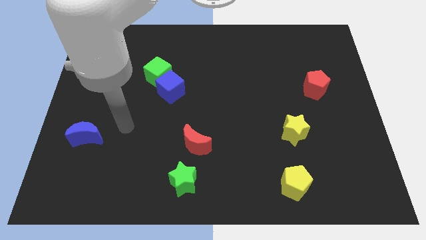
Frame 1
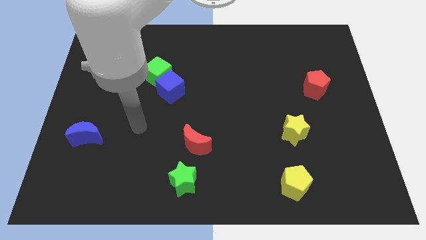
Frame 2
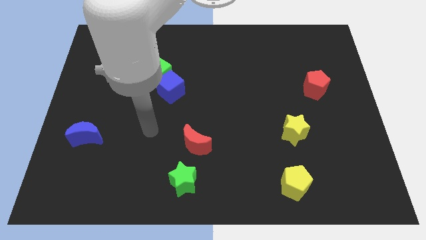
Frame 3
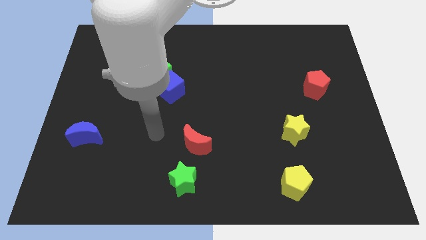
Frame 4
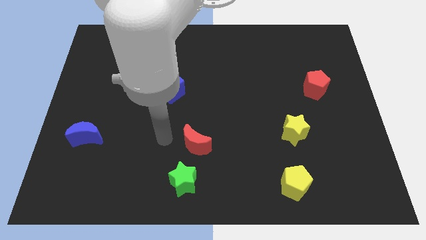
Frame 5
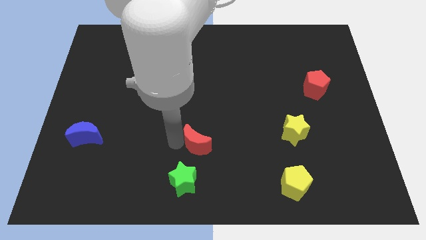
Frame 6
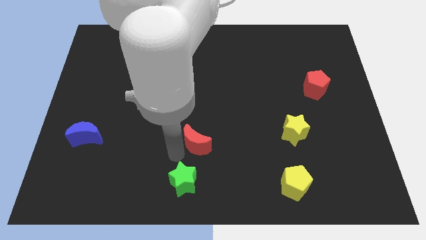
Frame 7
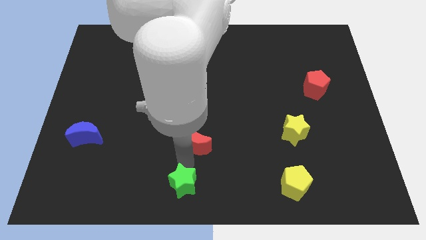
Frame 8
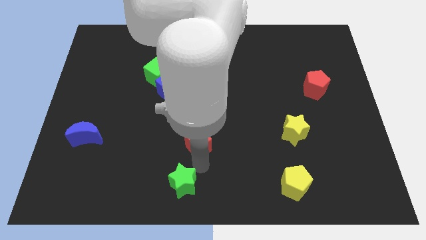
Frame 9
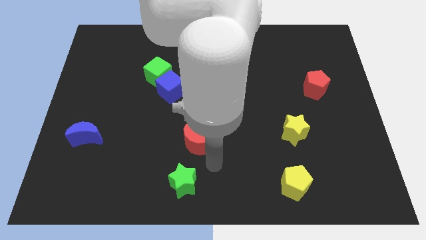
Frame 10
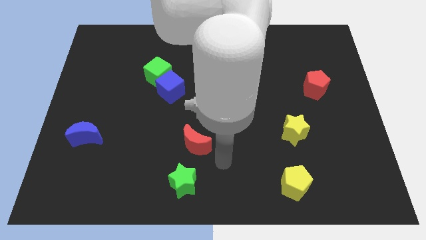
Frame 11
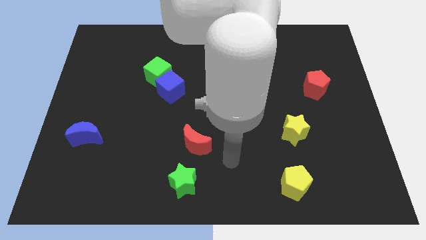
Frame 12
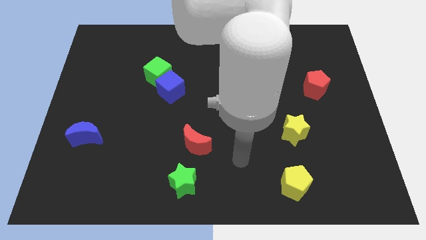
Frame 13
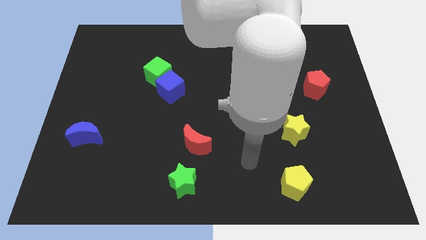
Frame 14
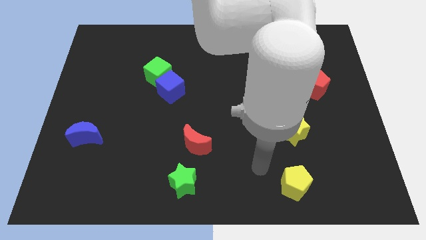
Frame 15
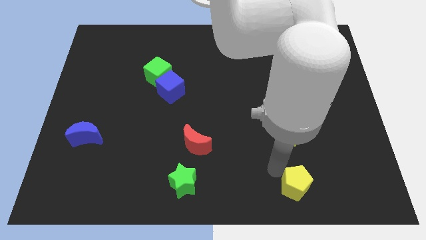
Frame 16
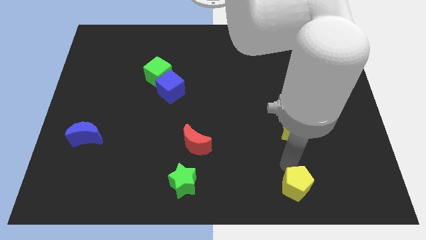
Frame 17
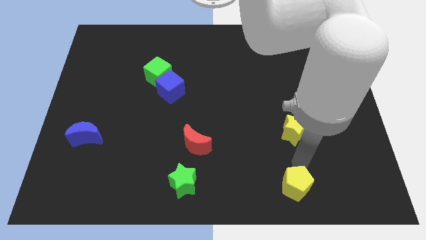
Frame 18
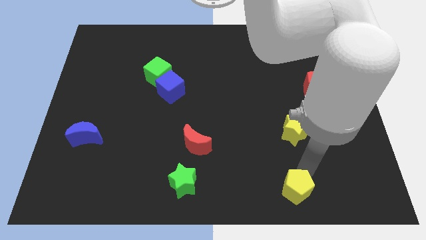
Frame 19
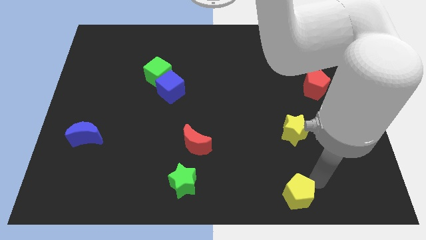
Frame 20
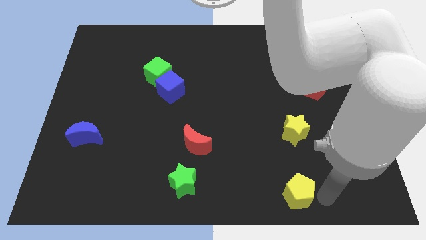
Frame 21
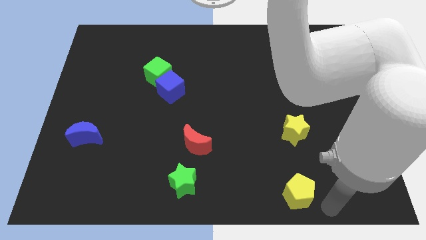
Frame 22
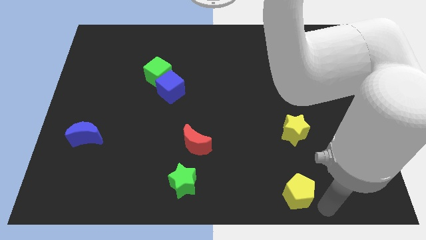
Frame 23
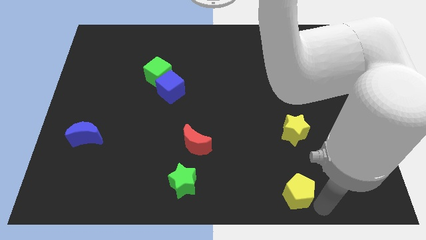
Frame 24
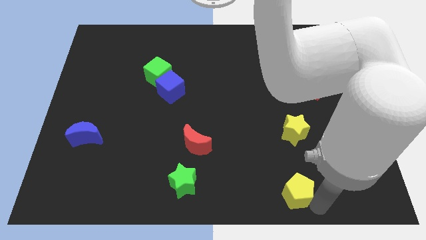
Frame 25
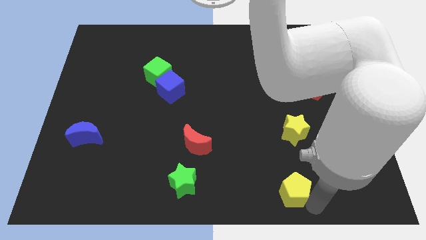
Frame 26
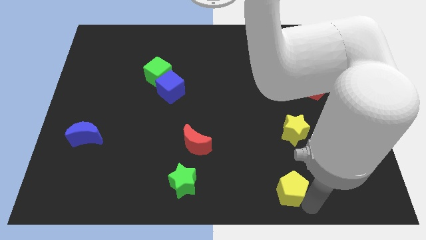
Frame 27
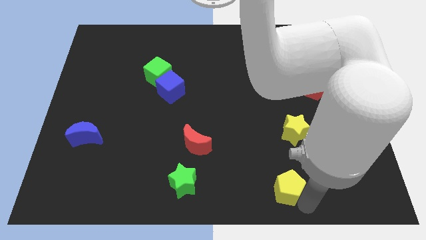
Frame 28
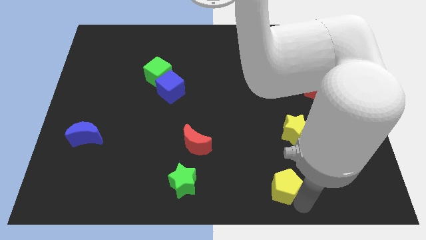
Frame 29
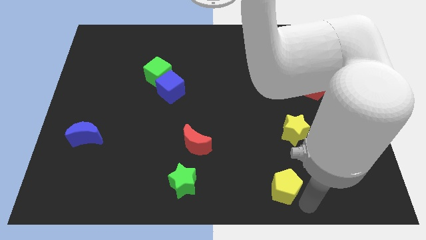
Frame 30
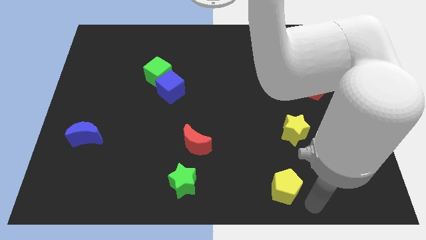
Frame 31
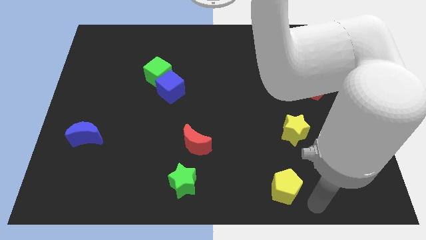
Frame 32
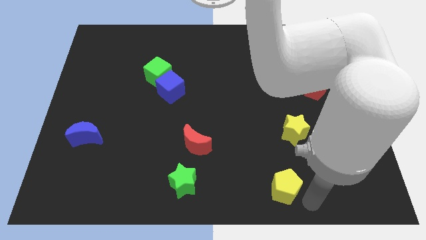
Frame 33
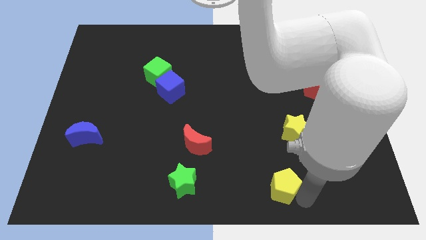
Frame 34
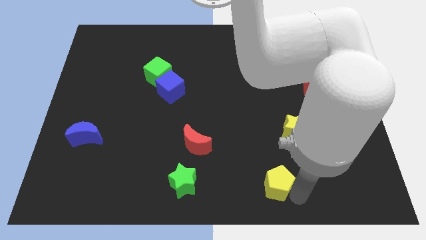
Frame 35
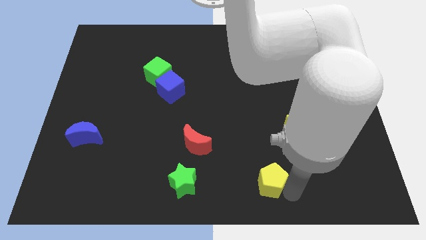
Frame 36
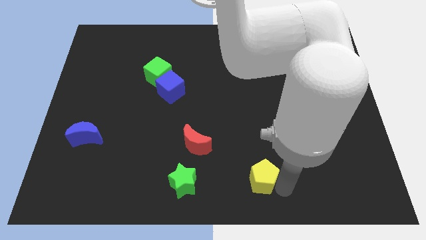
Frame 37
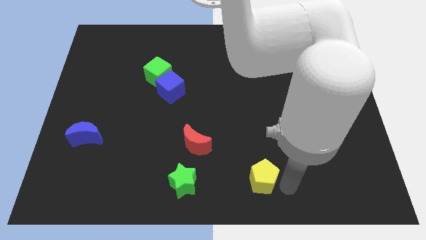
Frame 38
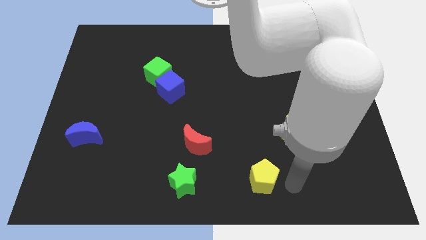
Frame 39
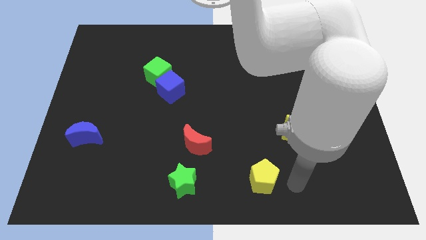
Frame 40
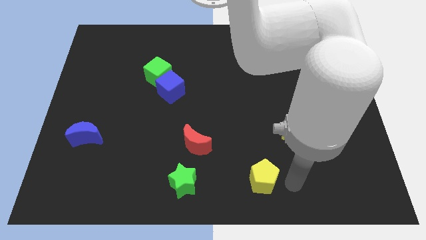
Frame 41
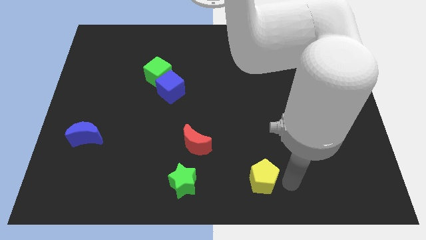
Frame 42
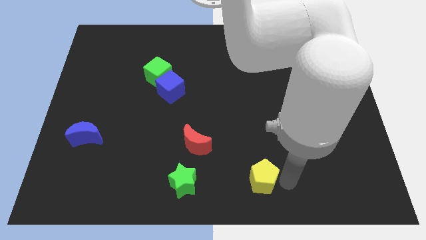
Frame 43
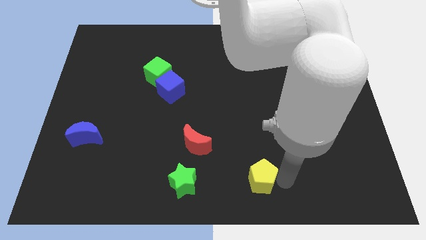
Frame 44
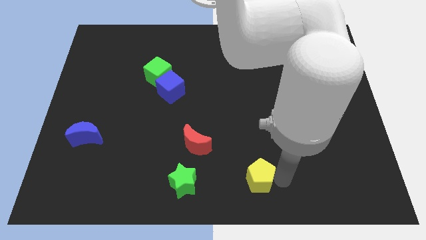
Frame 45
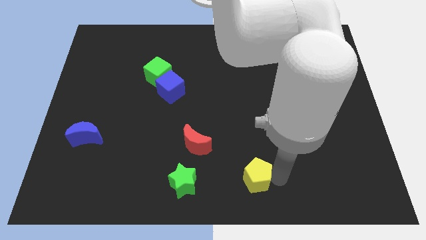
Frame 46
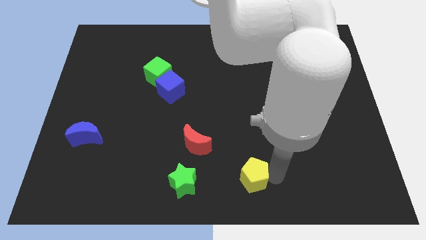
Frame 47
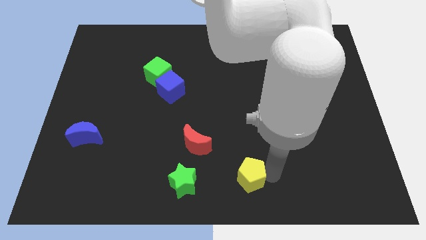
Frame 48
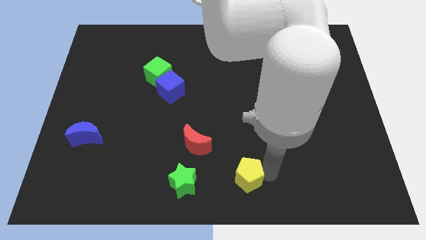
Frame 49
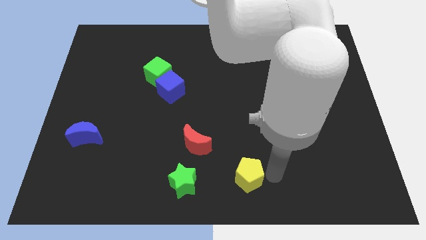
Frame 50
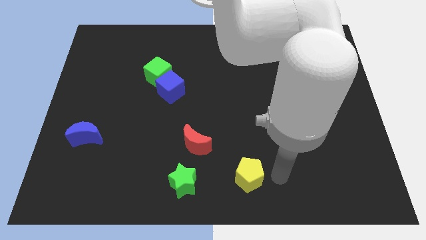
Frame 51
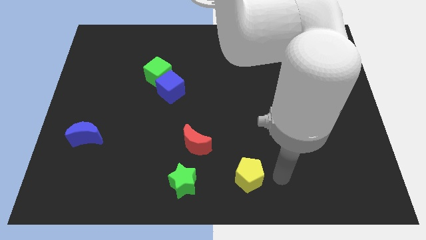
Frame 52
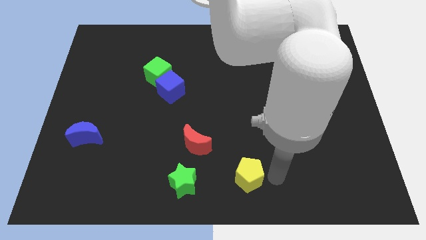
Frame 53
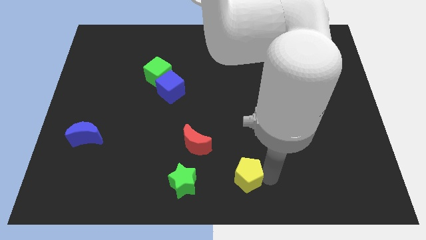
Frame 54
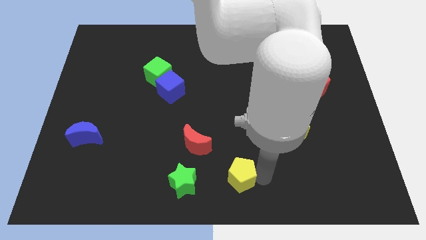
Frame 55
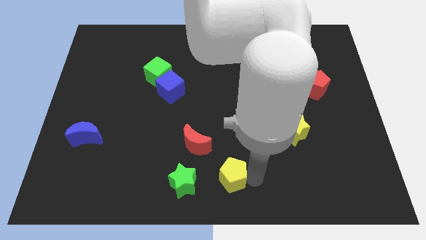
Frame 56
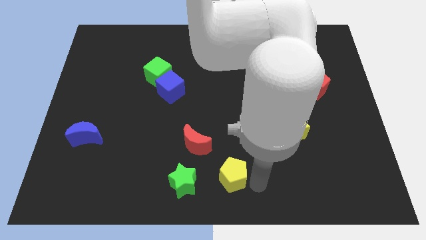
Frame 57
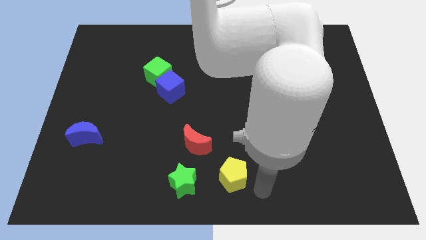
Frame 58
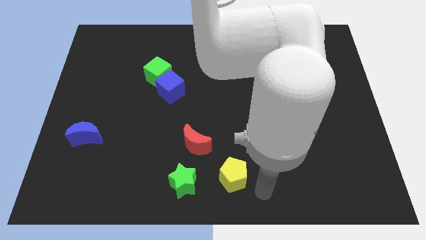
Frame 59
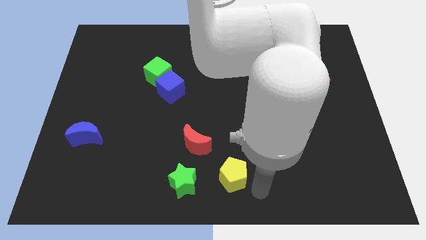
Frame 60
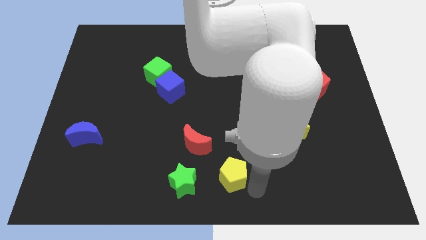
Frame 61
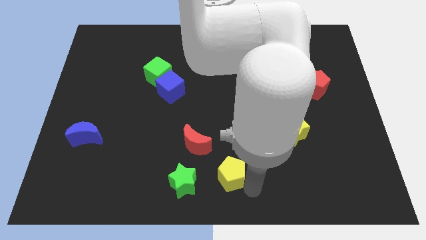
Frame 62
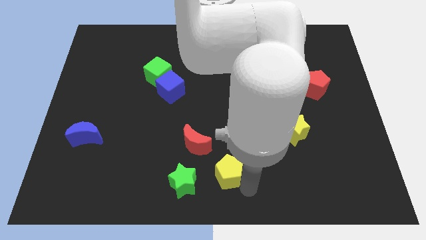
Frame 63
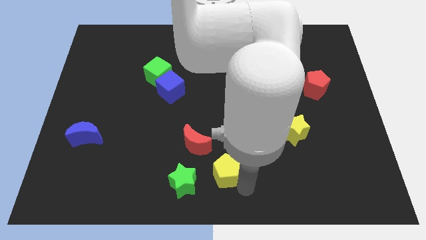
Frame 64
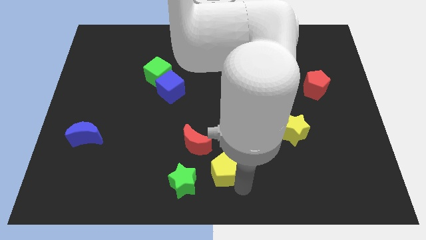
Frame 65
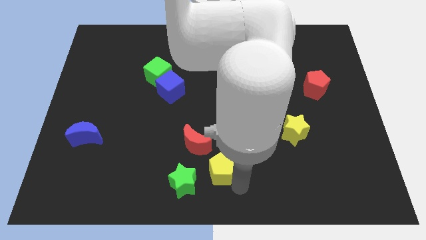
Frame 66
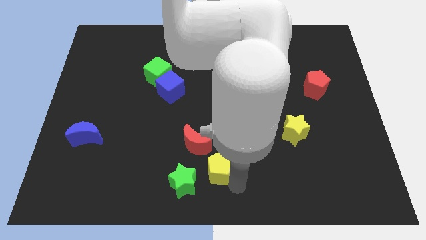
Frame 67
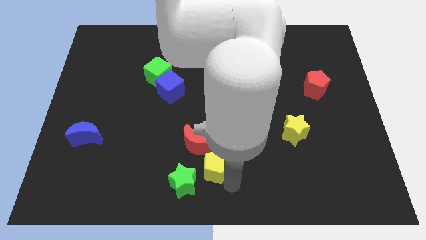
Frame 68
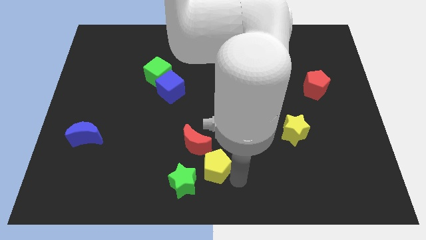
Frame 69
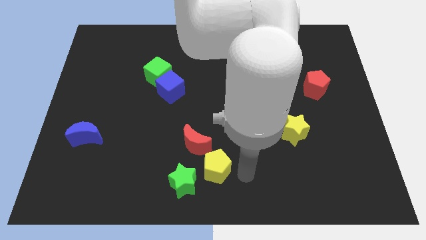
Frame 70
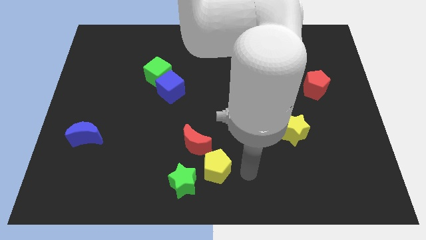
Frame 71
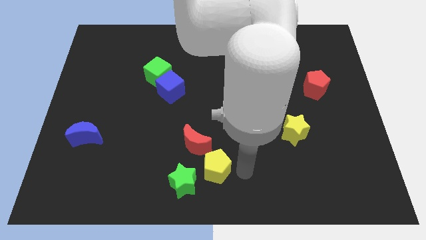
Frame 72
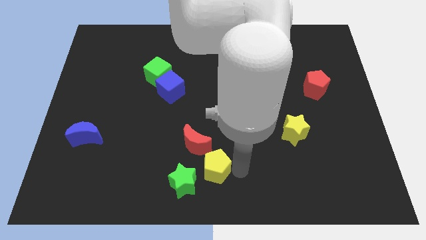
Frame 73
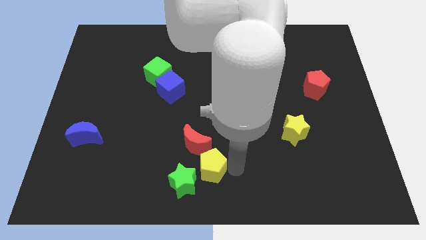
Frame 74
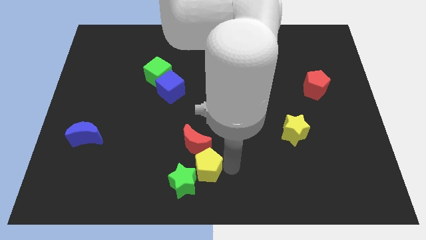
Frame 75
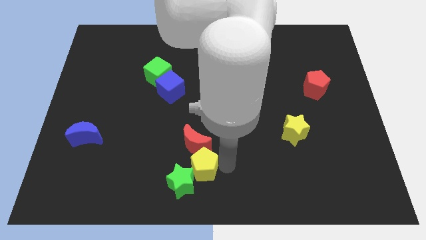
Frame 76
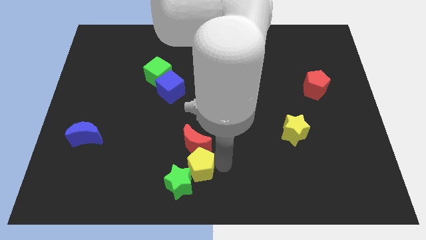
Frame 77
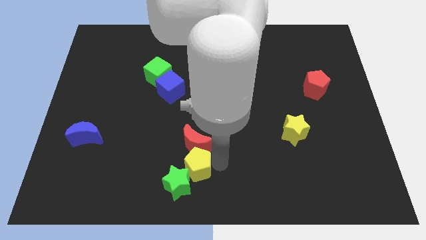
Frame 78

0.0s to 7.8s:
move the yellow pentagon to the bottom left side of the red moon
